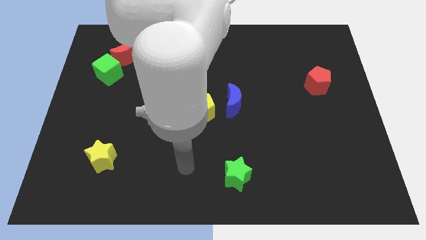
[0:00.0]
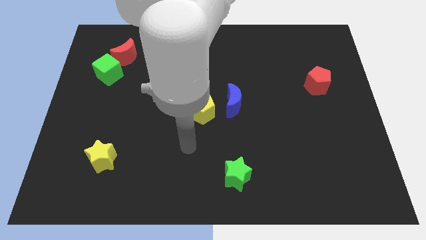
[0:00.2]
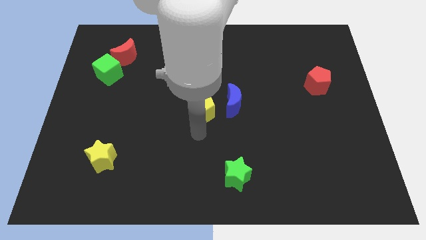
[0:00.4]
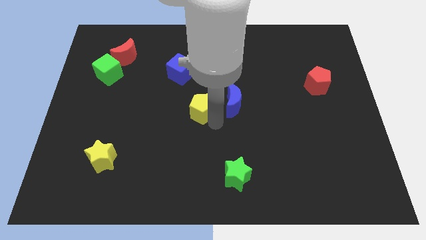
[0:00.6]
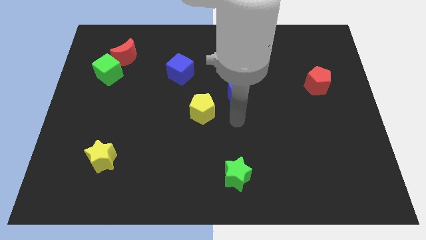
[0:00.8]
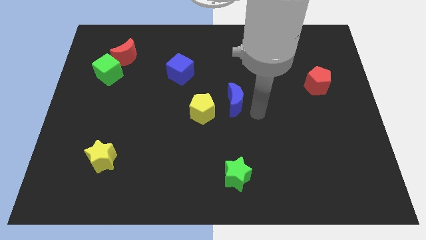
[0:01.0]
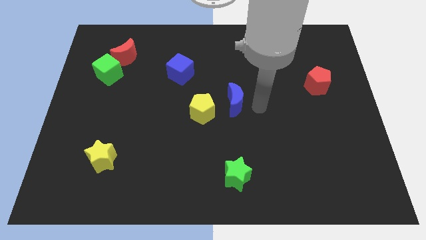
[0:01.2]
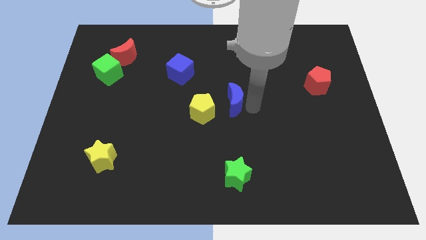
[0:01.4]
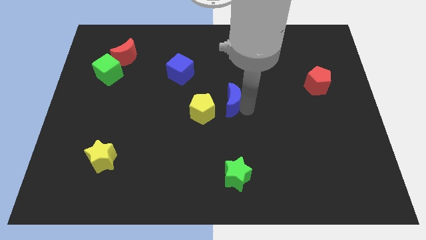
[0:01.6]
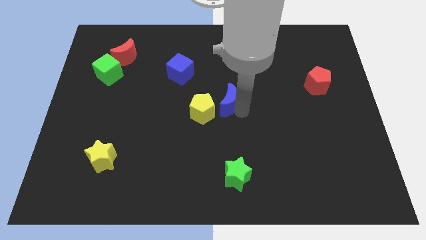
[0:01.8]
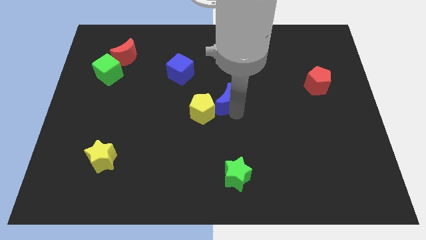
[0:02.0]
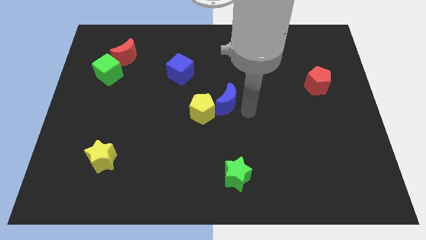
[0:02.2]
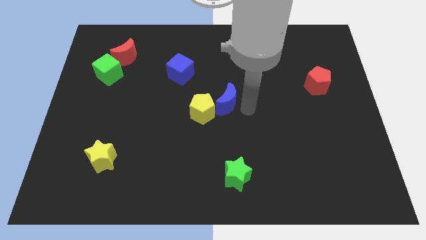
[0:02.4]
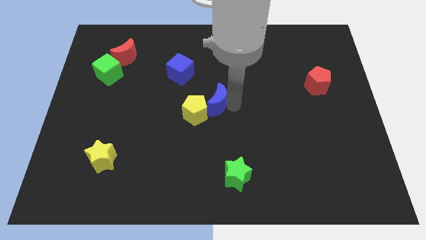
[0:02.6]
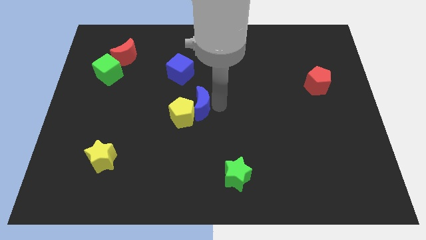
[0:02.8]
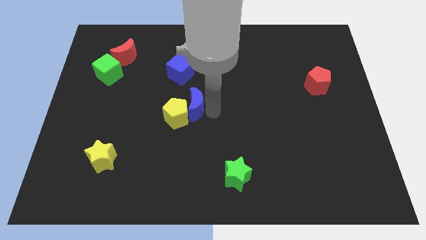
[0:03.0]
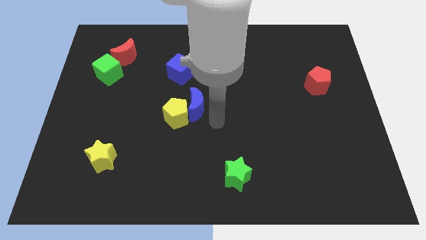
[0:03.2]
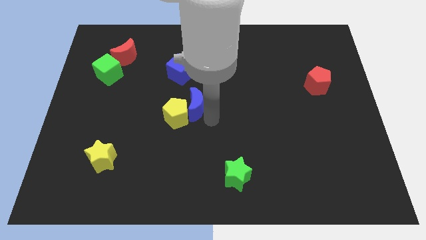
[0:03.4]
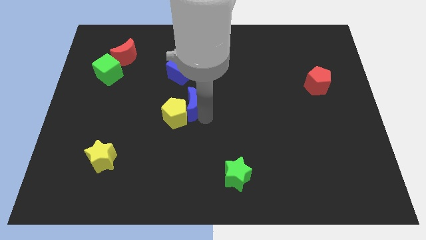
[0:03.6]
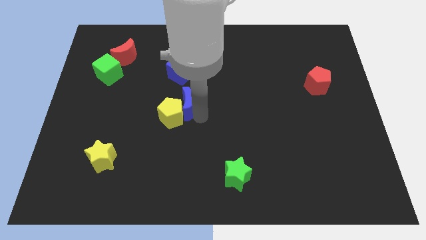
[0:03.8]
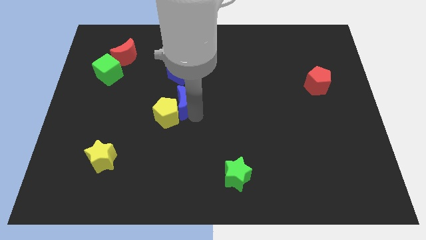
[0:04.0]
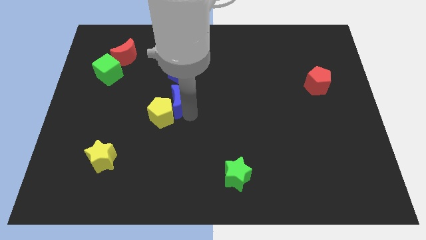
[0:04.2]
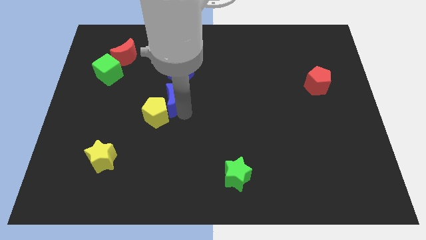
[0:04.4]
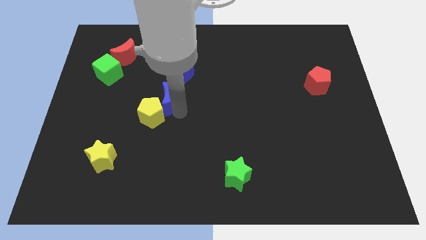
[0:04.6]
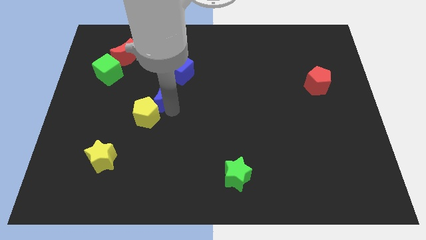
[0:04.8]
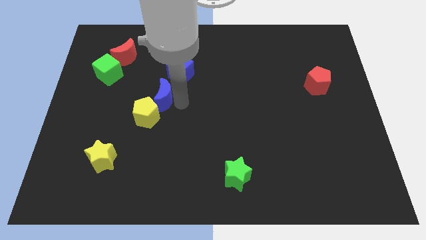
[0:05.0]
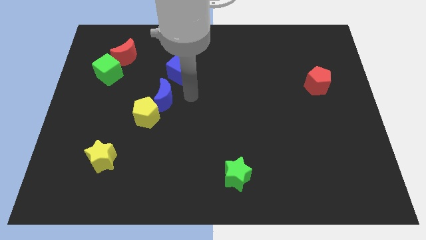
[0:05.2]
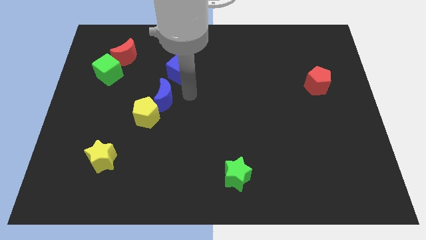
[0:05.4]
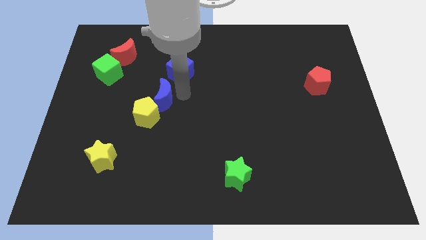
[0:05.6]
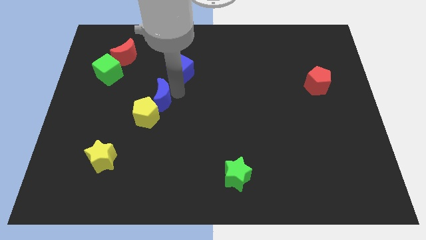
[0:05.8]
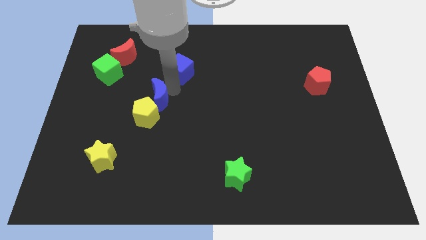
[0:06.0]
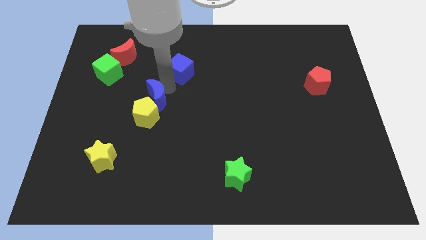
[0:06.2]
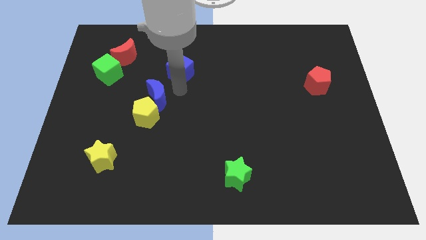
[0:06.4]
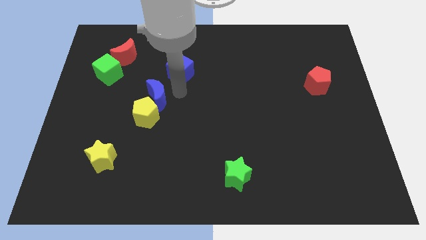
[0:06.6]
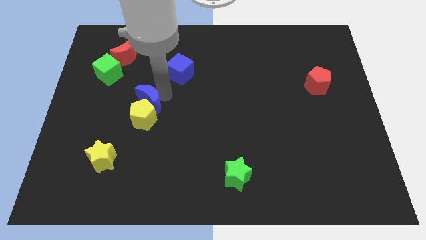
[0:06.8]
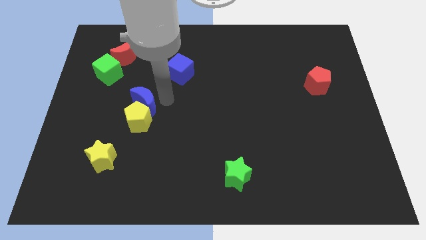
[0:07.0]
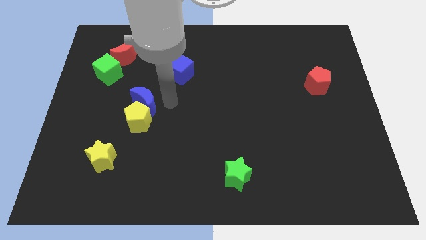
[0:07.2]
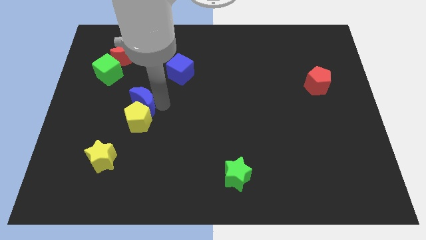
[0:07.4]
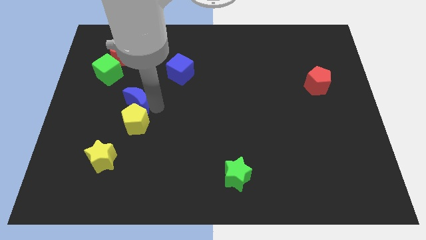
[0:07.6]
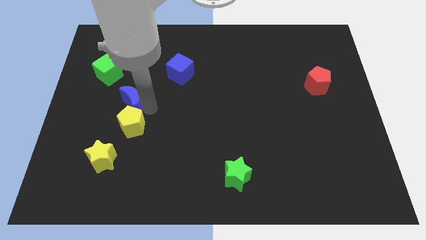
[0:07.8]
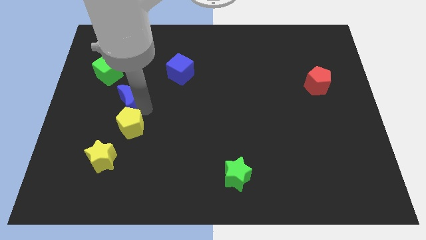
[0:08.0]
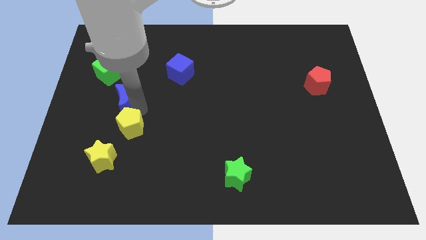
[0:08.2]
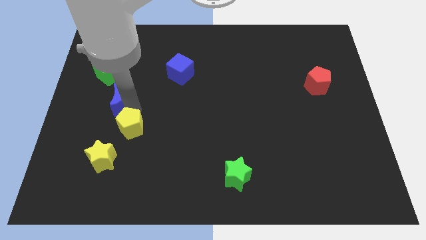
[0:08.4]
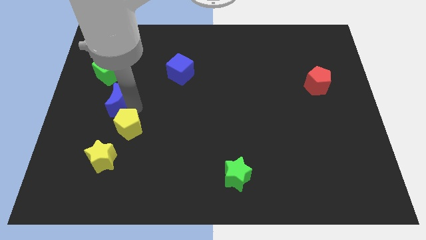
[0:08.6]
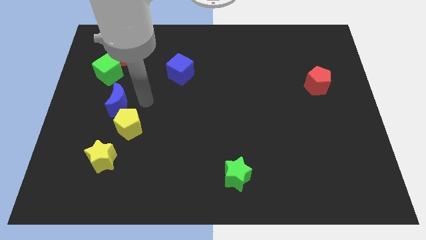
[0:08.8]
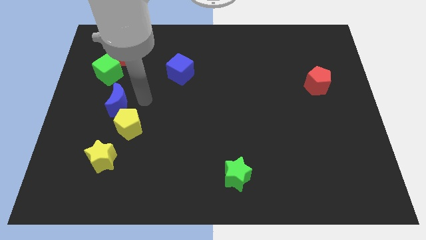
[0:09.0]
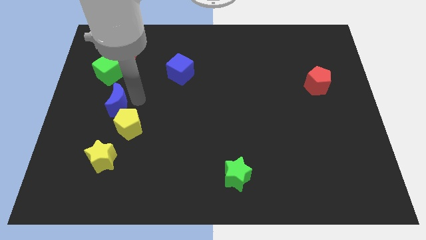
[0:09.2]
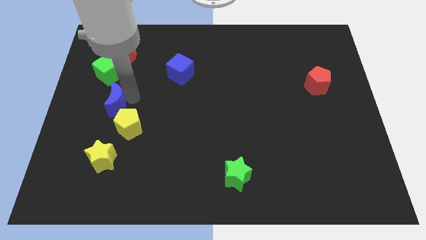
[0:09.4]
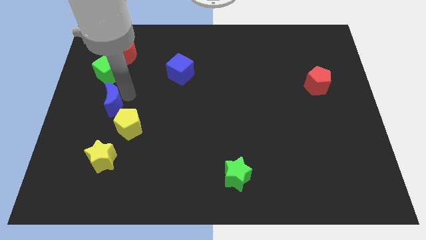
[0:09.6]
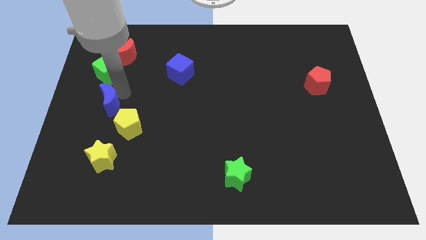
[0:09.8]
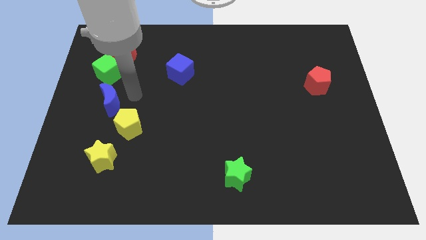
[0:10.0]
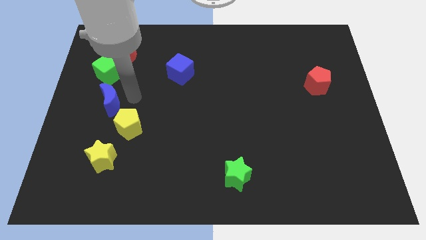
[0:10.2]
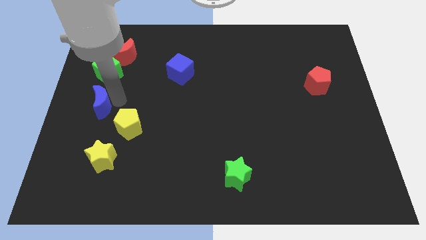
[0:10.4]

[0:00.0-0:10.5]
put the blue moon to the left side
